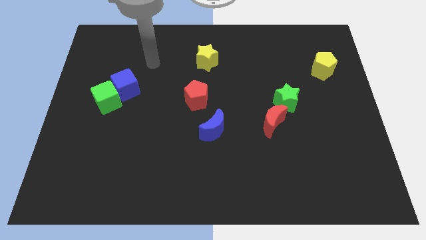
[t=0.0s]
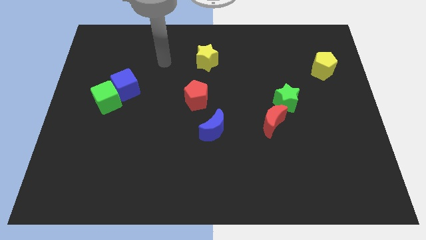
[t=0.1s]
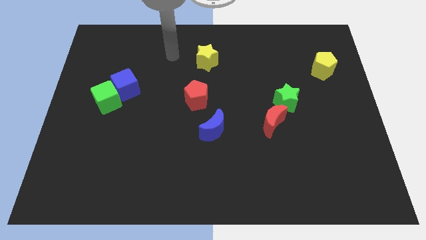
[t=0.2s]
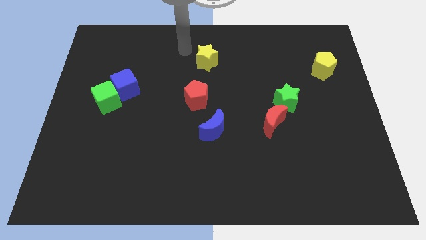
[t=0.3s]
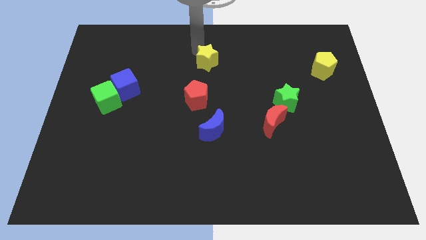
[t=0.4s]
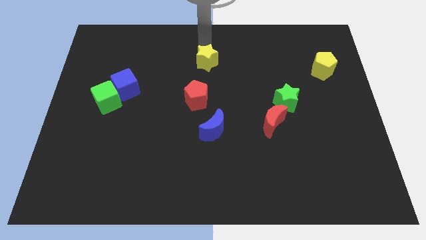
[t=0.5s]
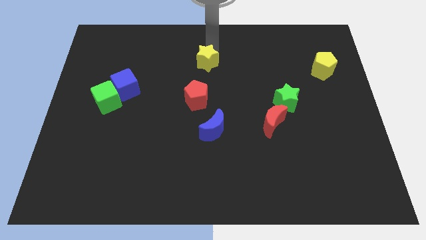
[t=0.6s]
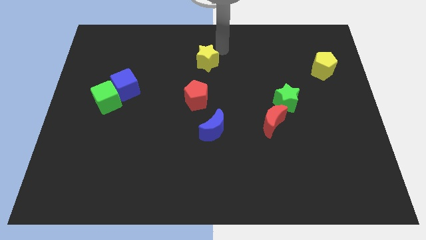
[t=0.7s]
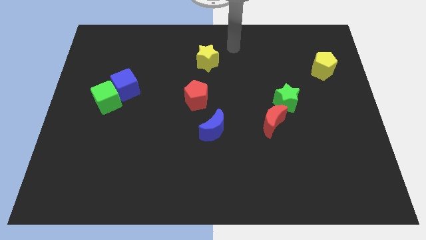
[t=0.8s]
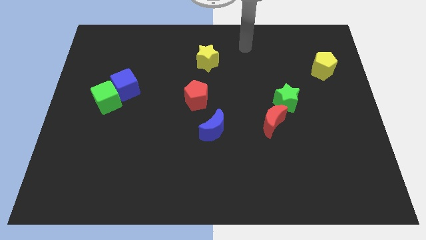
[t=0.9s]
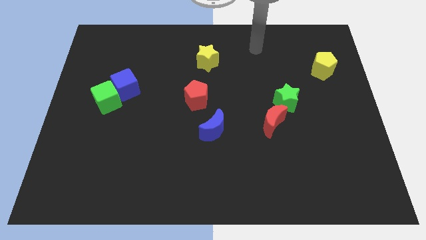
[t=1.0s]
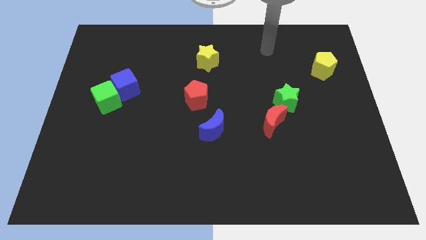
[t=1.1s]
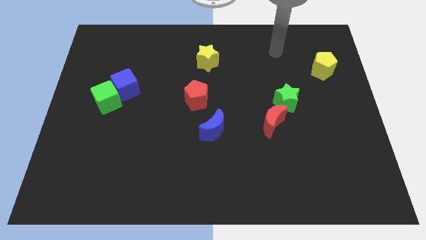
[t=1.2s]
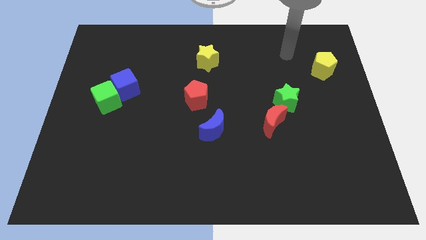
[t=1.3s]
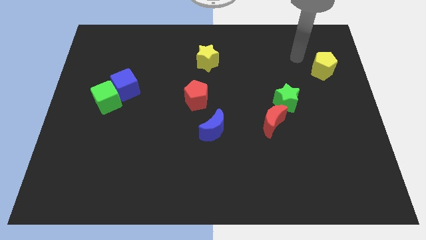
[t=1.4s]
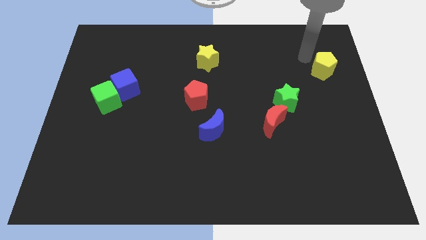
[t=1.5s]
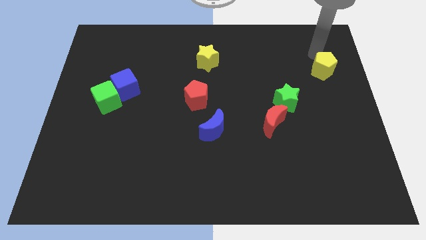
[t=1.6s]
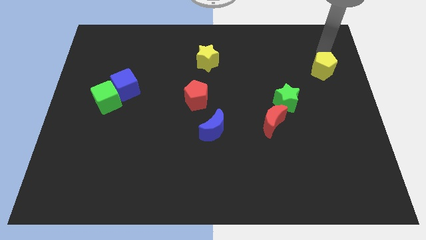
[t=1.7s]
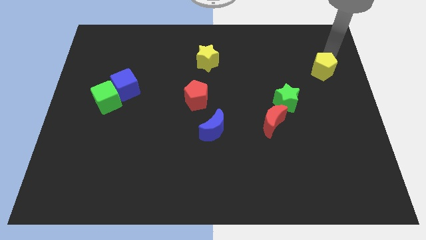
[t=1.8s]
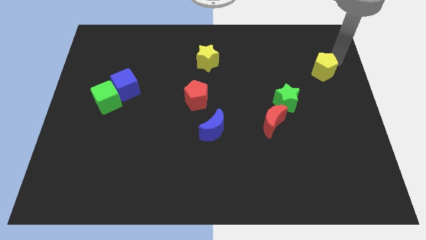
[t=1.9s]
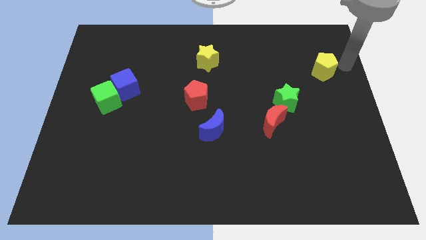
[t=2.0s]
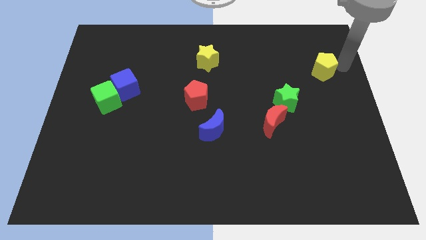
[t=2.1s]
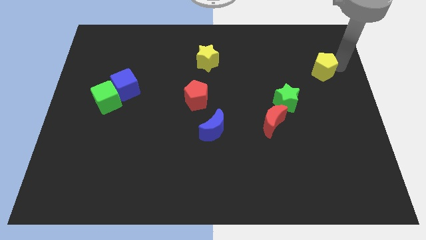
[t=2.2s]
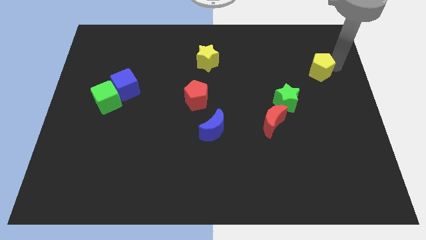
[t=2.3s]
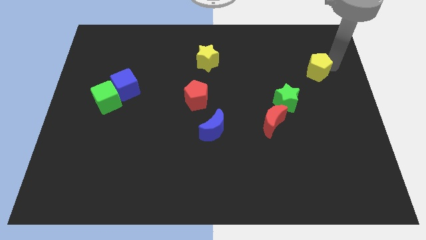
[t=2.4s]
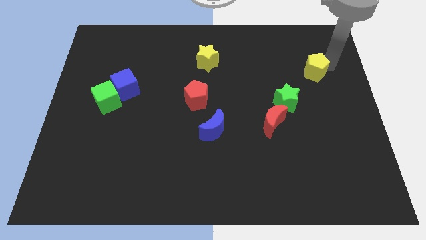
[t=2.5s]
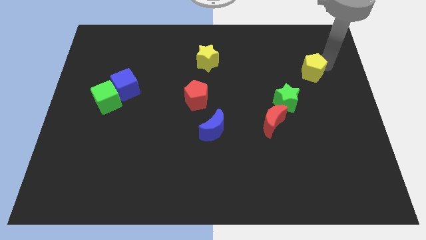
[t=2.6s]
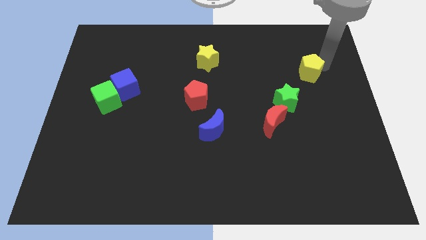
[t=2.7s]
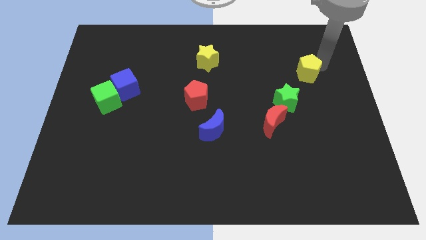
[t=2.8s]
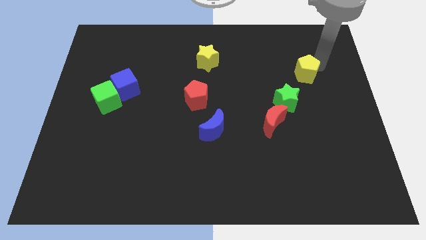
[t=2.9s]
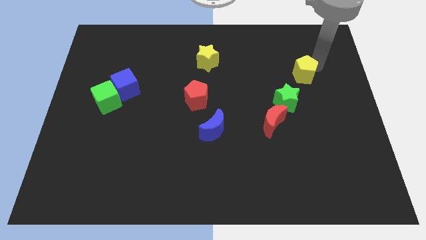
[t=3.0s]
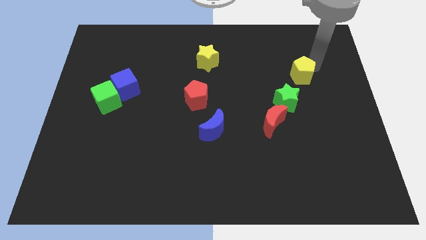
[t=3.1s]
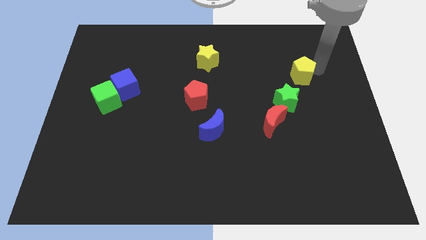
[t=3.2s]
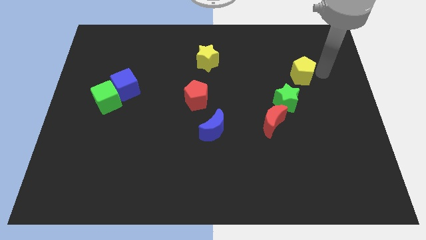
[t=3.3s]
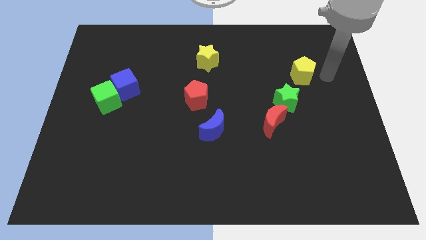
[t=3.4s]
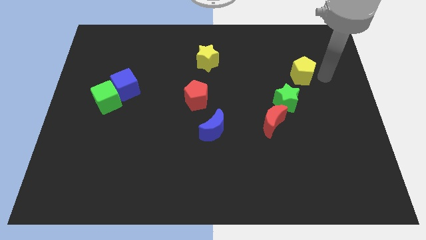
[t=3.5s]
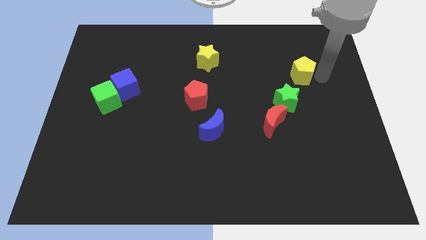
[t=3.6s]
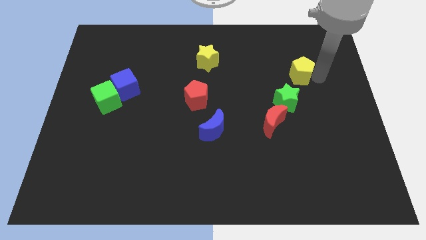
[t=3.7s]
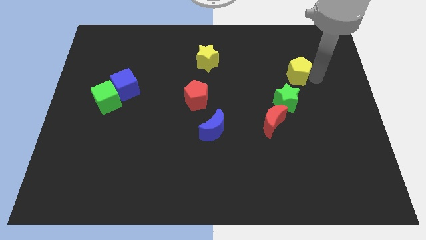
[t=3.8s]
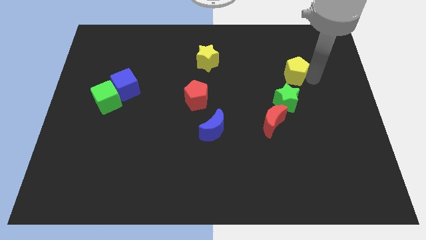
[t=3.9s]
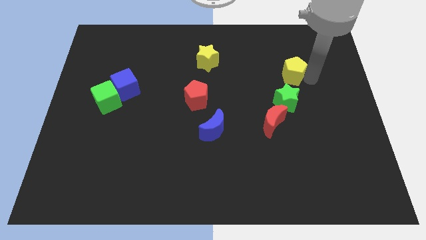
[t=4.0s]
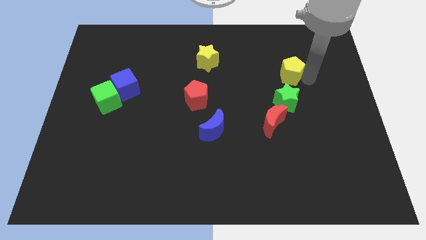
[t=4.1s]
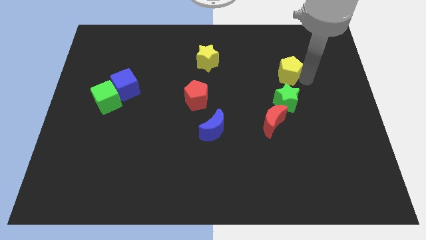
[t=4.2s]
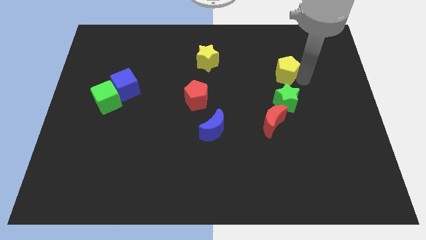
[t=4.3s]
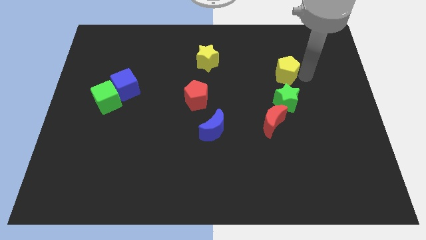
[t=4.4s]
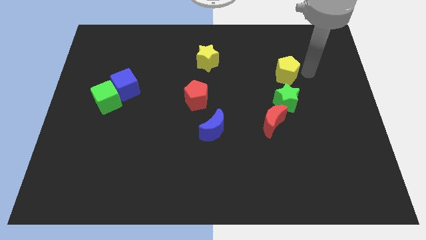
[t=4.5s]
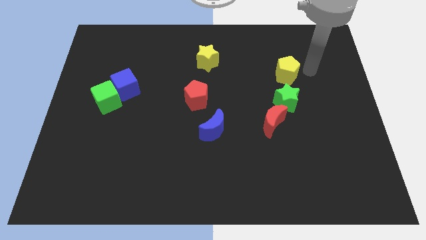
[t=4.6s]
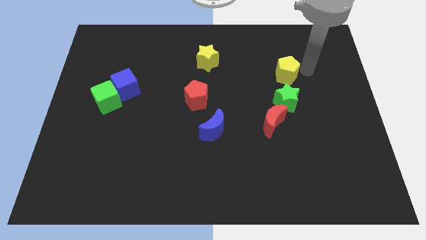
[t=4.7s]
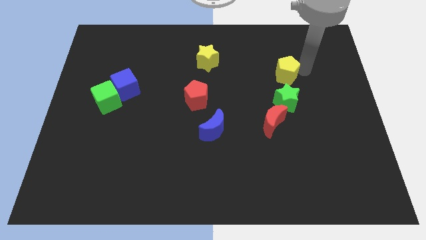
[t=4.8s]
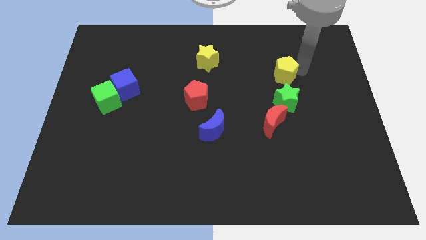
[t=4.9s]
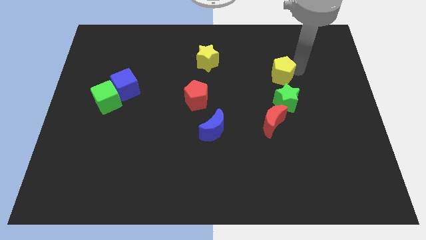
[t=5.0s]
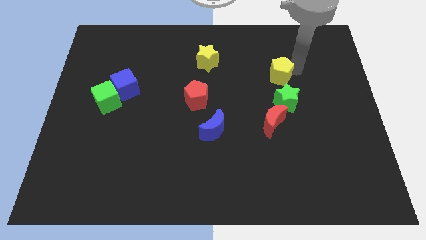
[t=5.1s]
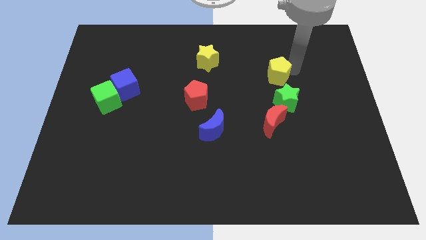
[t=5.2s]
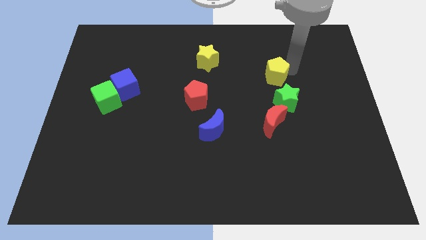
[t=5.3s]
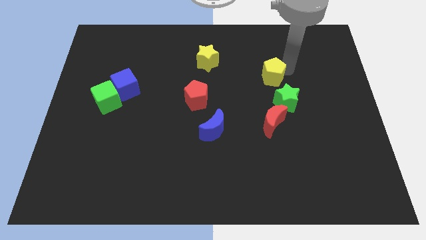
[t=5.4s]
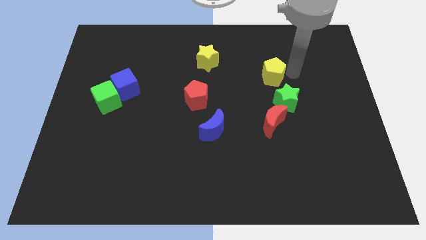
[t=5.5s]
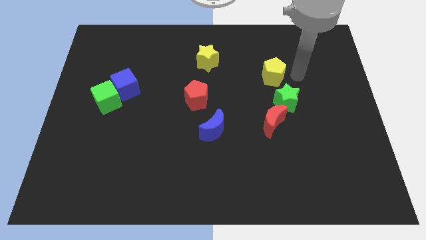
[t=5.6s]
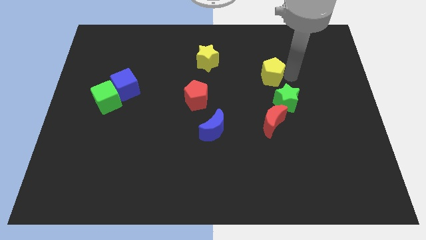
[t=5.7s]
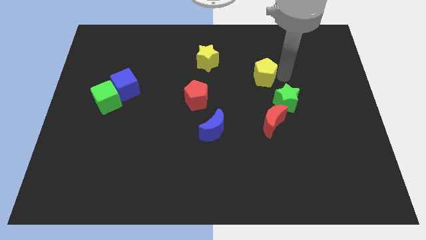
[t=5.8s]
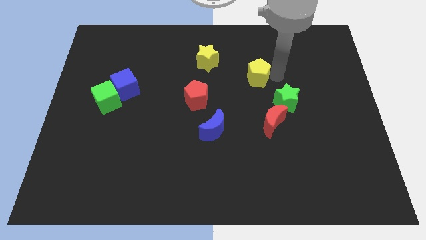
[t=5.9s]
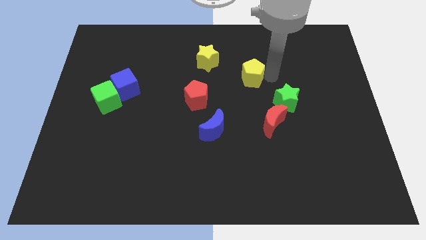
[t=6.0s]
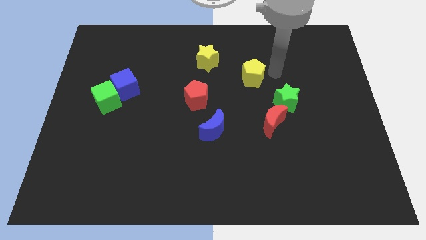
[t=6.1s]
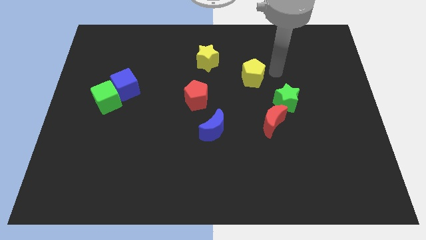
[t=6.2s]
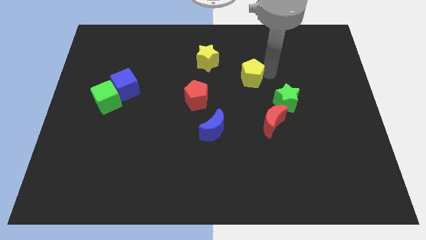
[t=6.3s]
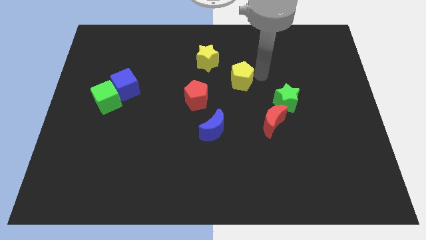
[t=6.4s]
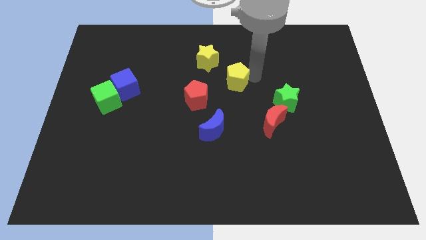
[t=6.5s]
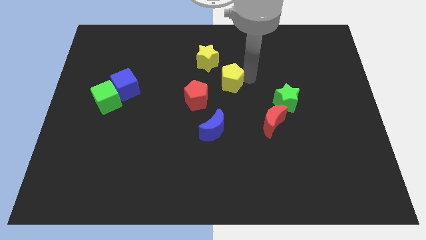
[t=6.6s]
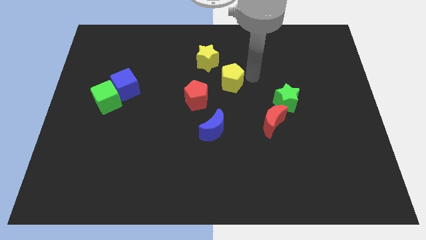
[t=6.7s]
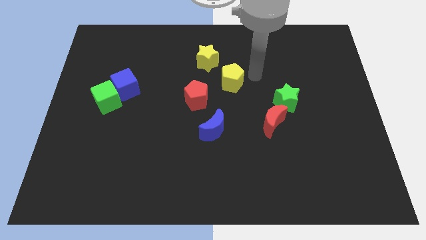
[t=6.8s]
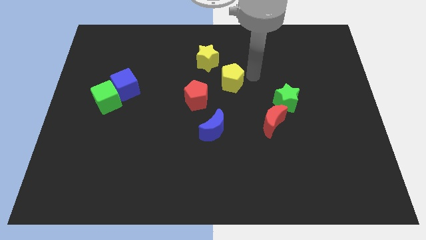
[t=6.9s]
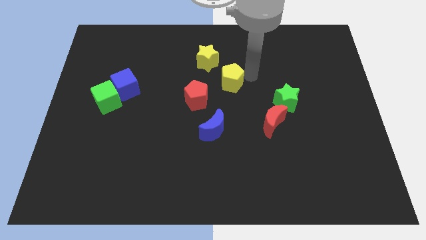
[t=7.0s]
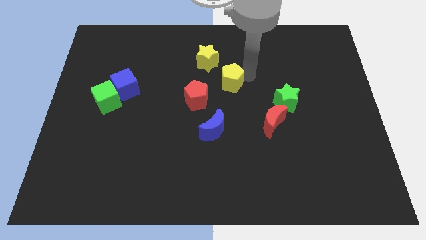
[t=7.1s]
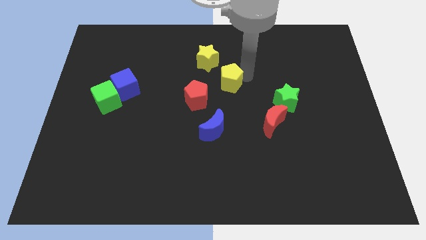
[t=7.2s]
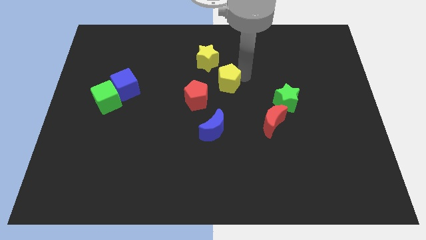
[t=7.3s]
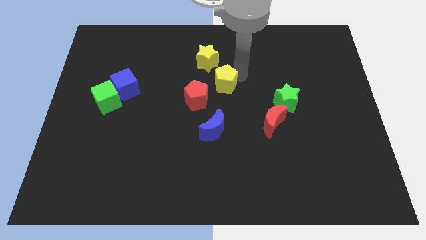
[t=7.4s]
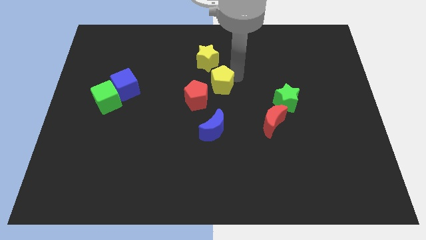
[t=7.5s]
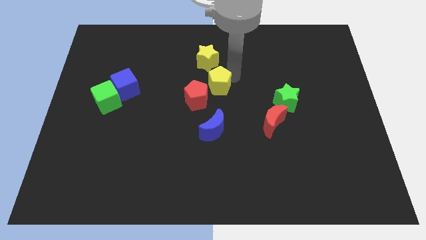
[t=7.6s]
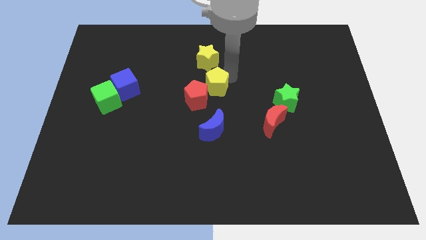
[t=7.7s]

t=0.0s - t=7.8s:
move the yellow pentagon towards the red pentagon
